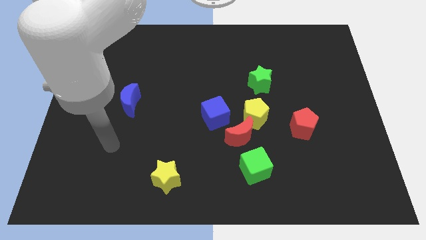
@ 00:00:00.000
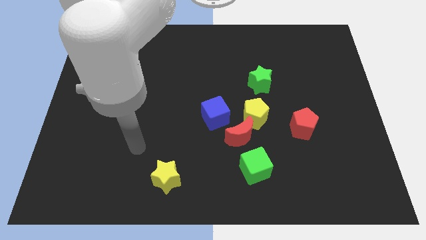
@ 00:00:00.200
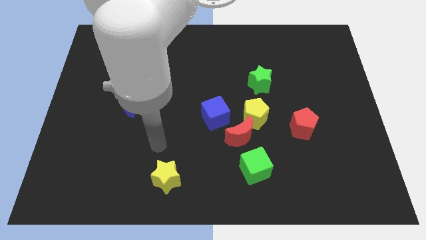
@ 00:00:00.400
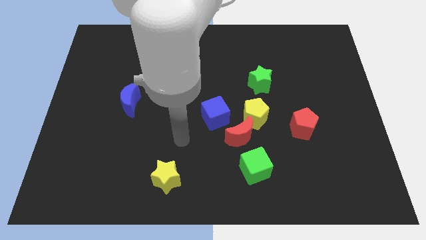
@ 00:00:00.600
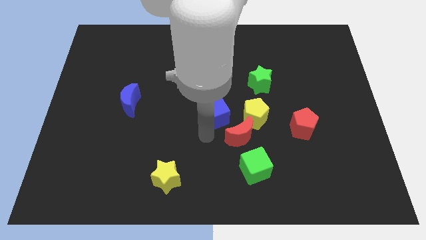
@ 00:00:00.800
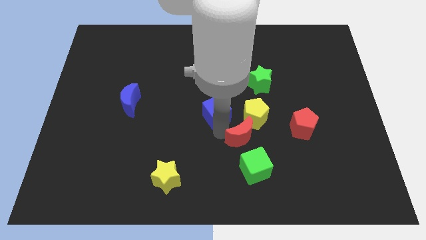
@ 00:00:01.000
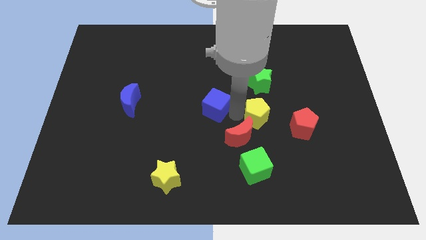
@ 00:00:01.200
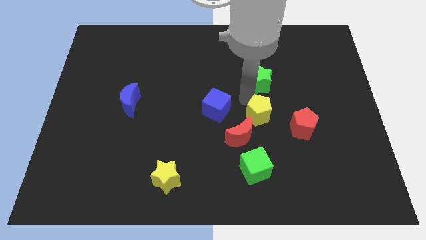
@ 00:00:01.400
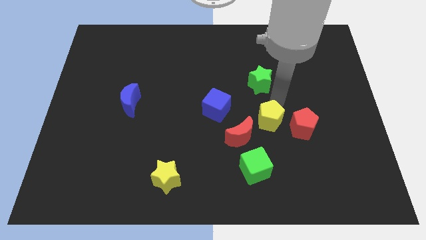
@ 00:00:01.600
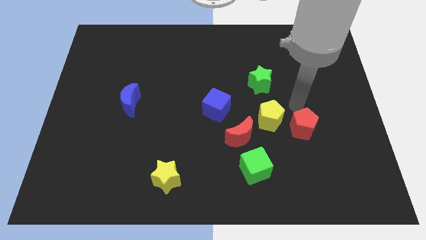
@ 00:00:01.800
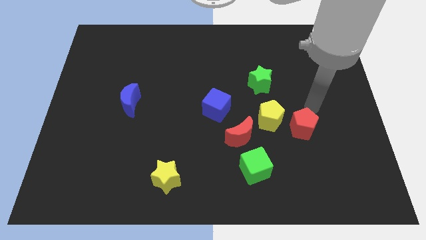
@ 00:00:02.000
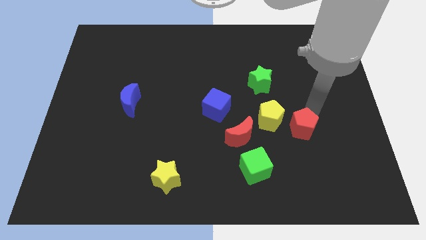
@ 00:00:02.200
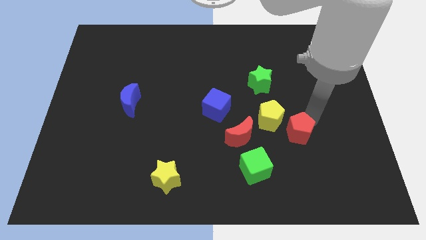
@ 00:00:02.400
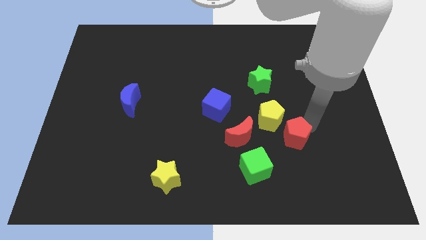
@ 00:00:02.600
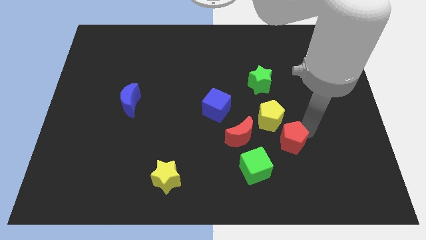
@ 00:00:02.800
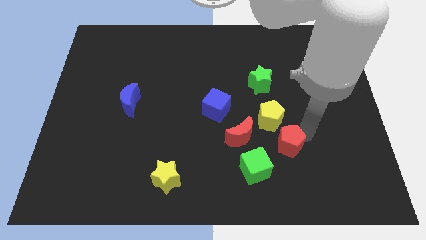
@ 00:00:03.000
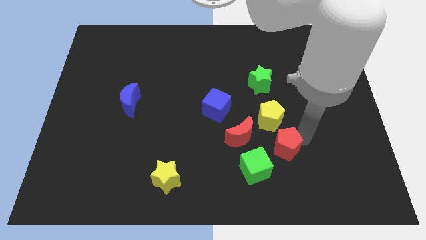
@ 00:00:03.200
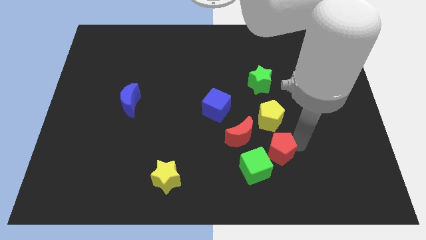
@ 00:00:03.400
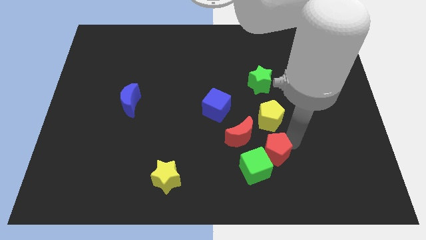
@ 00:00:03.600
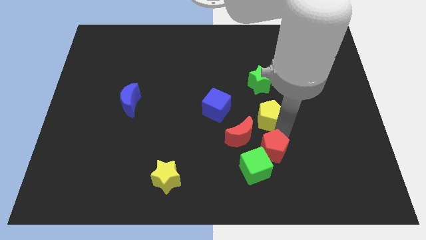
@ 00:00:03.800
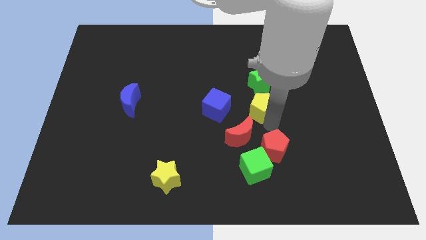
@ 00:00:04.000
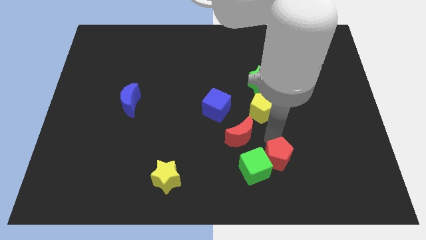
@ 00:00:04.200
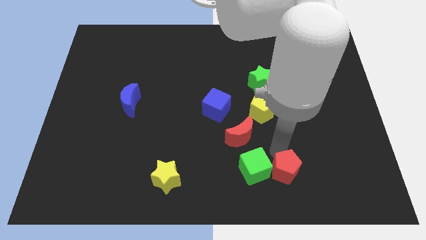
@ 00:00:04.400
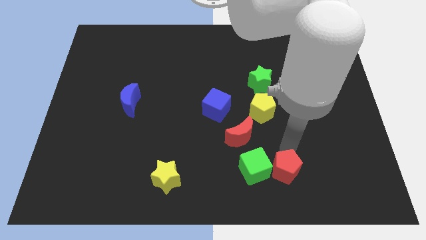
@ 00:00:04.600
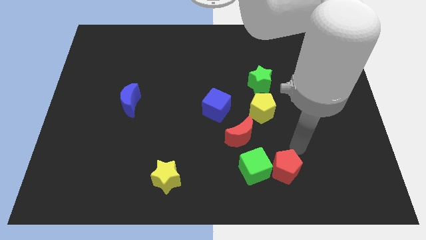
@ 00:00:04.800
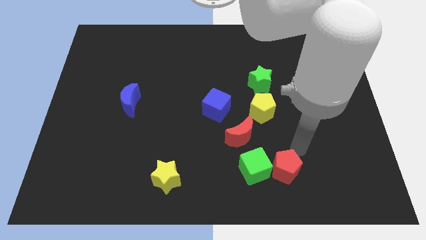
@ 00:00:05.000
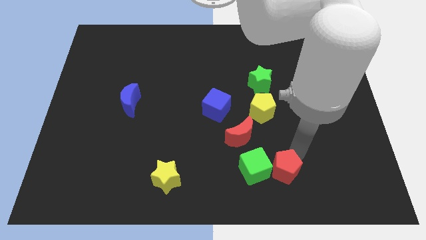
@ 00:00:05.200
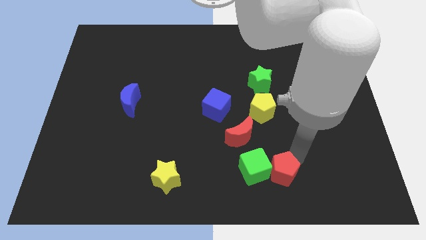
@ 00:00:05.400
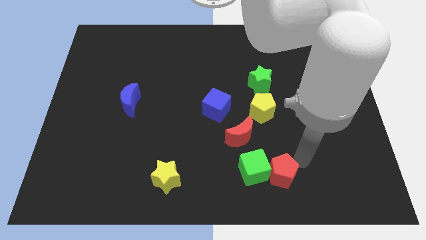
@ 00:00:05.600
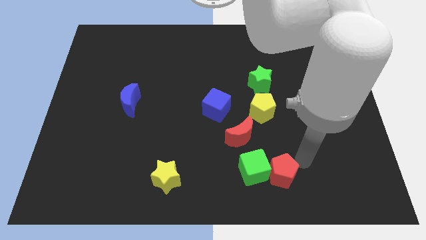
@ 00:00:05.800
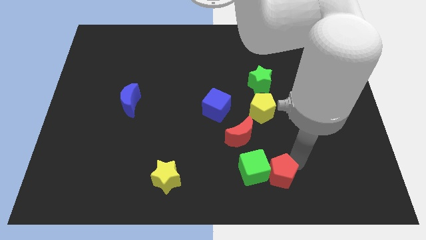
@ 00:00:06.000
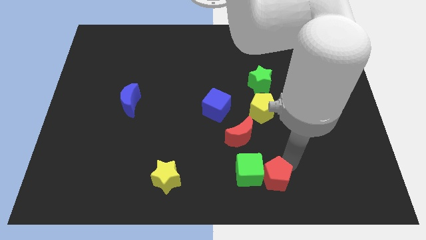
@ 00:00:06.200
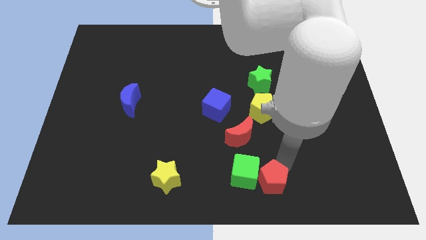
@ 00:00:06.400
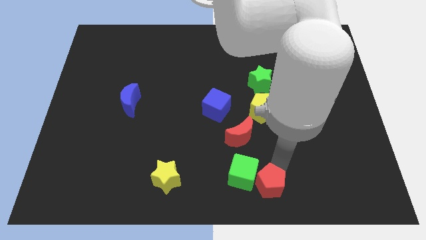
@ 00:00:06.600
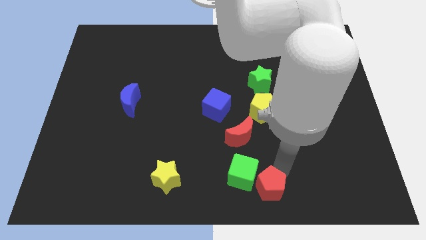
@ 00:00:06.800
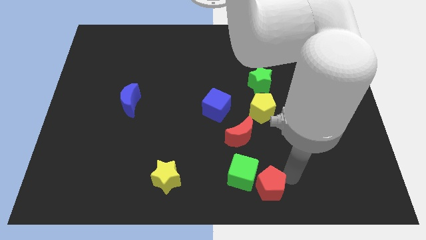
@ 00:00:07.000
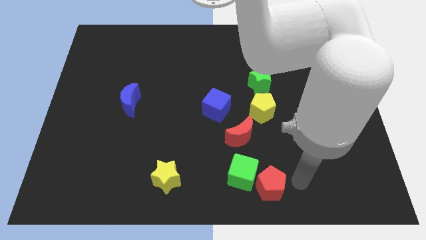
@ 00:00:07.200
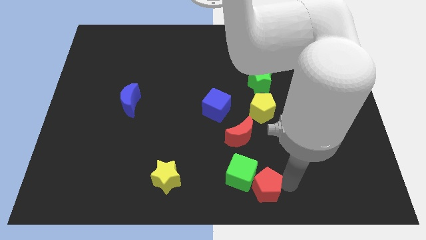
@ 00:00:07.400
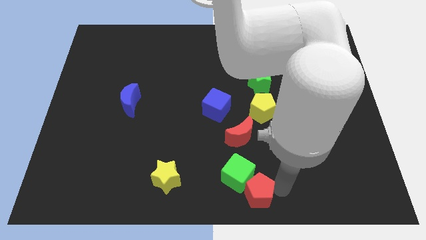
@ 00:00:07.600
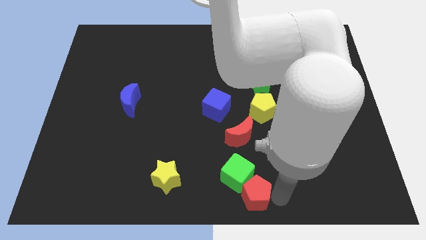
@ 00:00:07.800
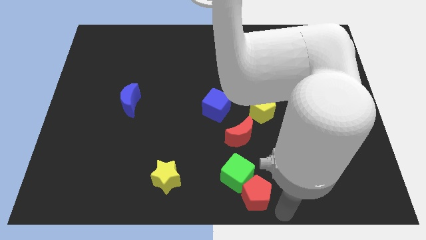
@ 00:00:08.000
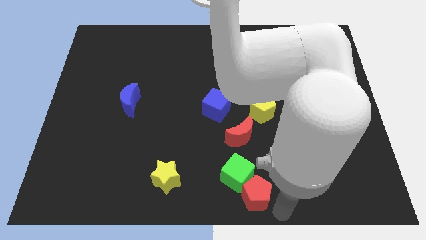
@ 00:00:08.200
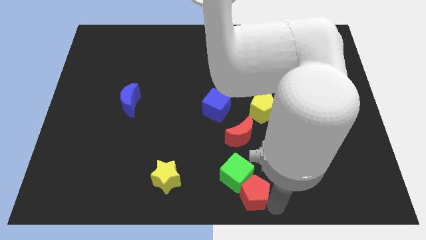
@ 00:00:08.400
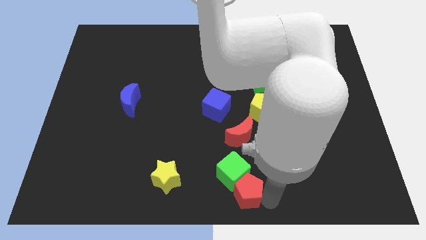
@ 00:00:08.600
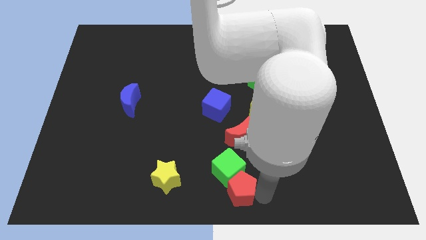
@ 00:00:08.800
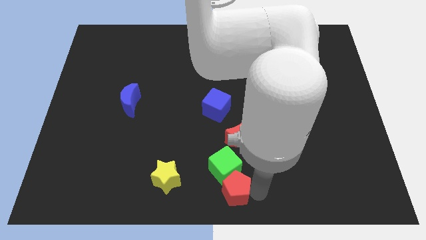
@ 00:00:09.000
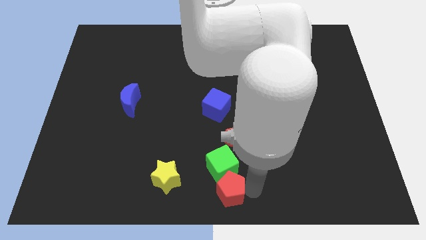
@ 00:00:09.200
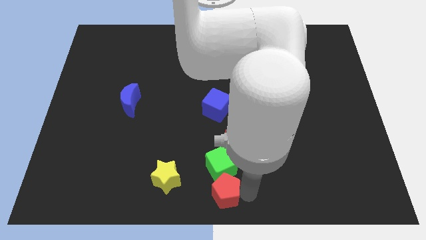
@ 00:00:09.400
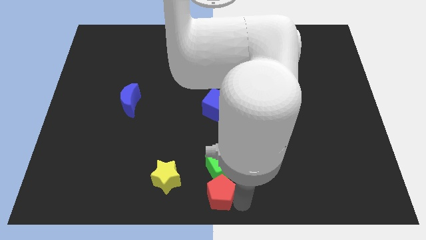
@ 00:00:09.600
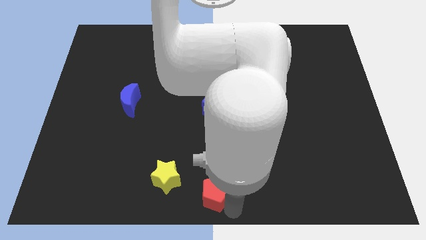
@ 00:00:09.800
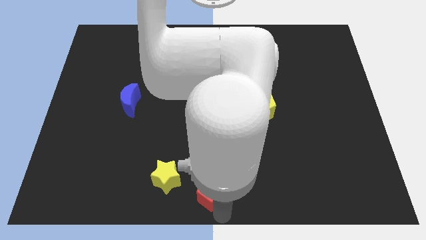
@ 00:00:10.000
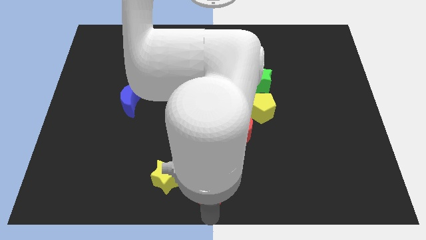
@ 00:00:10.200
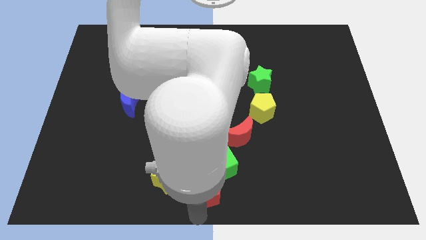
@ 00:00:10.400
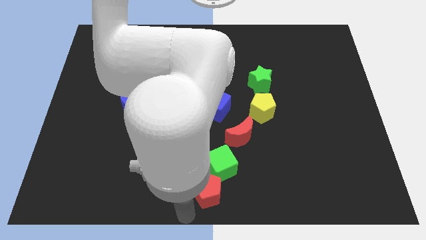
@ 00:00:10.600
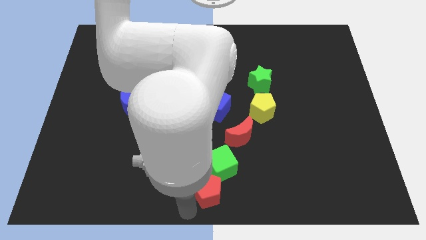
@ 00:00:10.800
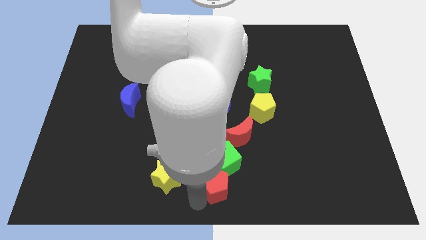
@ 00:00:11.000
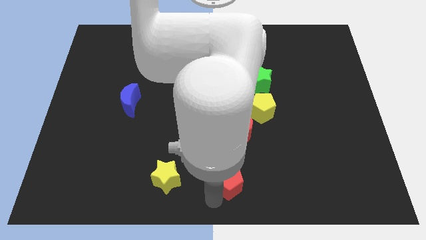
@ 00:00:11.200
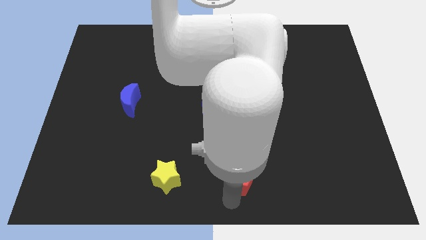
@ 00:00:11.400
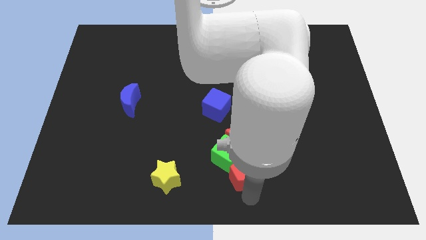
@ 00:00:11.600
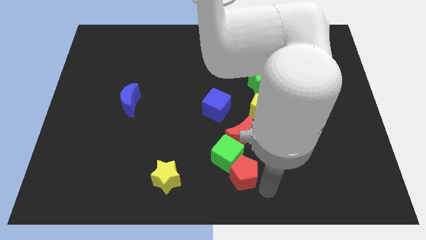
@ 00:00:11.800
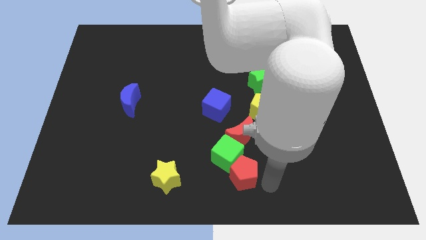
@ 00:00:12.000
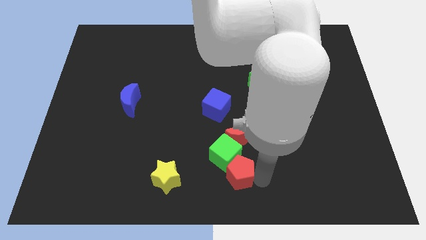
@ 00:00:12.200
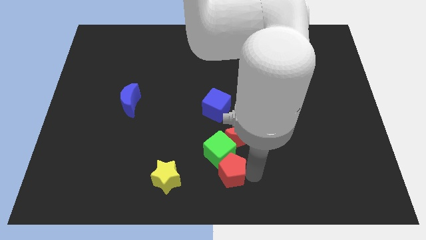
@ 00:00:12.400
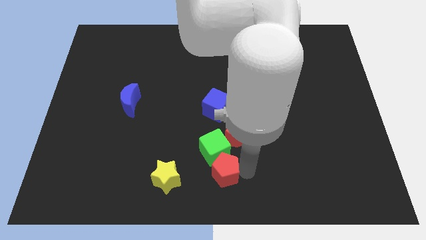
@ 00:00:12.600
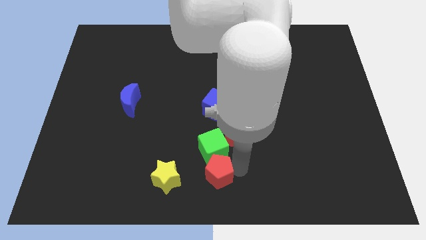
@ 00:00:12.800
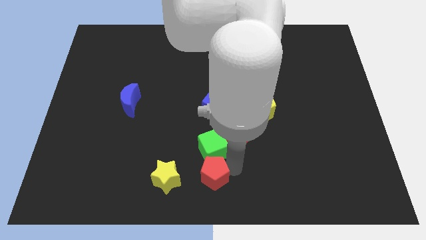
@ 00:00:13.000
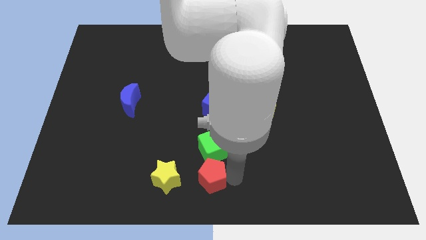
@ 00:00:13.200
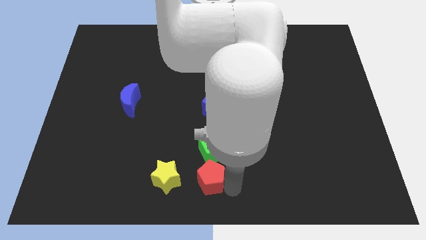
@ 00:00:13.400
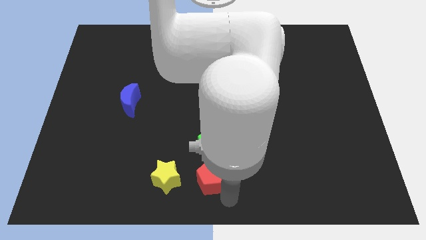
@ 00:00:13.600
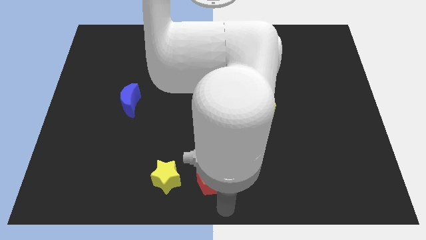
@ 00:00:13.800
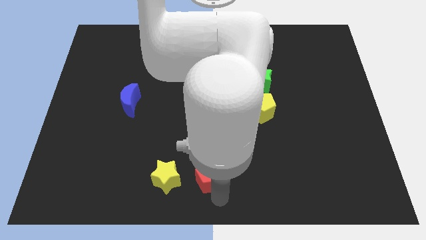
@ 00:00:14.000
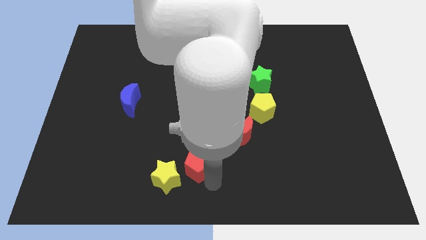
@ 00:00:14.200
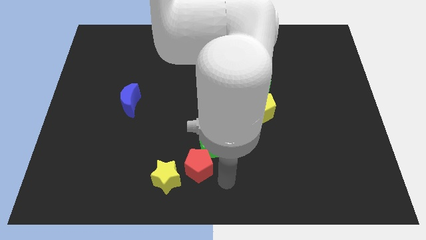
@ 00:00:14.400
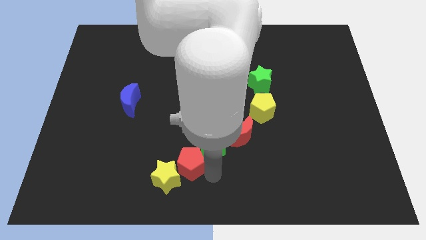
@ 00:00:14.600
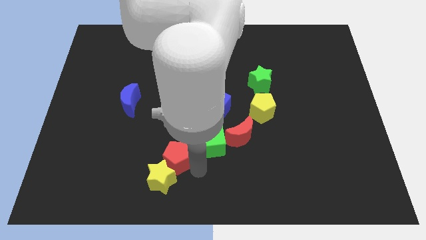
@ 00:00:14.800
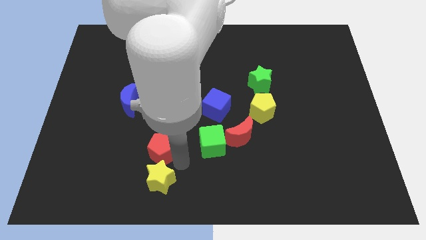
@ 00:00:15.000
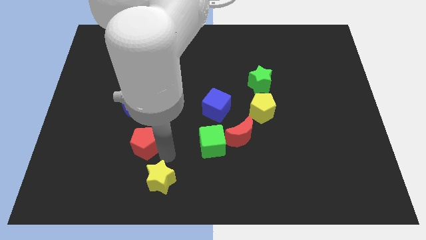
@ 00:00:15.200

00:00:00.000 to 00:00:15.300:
slide the red pentagon below the blue moon
